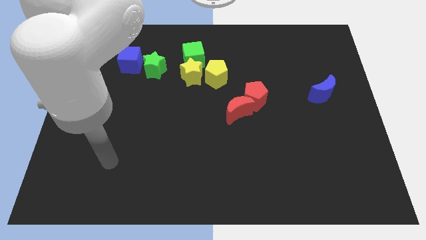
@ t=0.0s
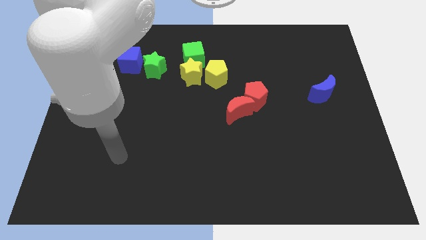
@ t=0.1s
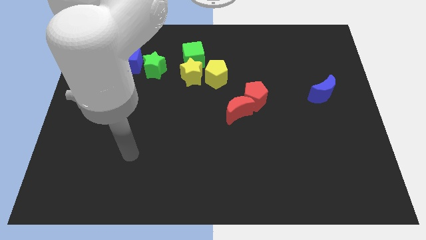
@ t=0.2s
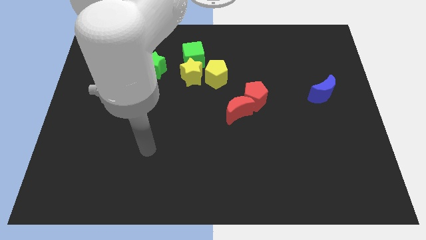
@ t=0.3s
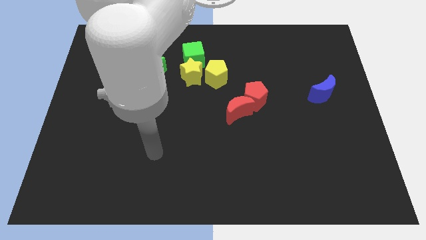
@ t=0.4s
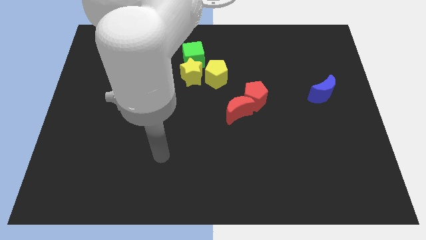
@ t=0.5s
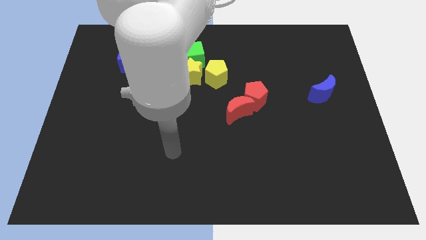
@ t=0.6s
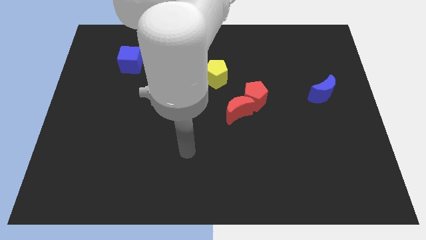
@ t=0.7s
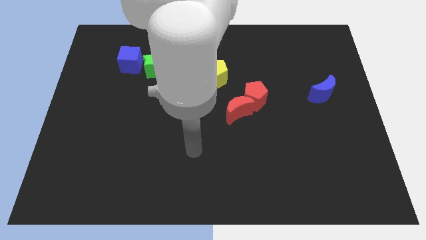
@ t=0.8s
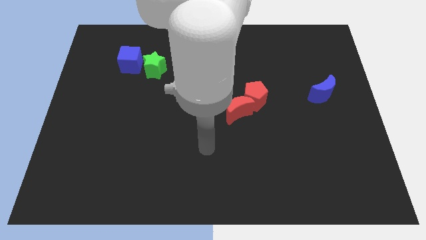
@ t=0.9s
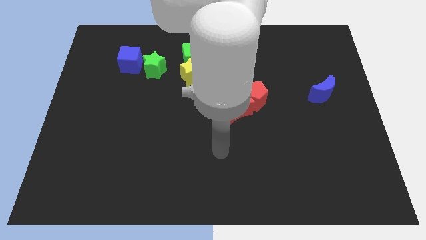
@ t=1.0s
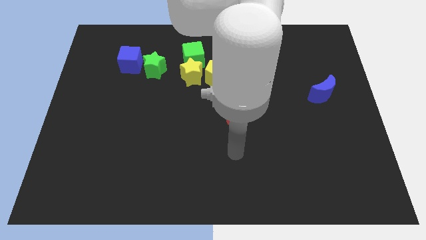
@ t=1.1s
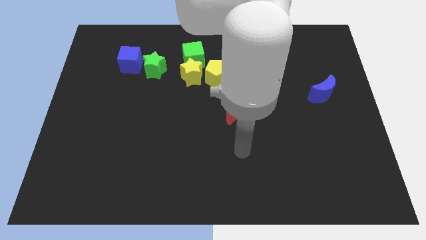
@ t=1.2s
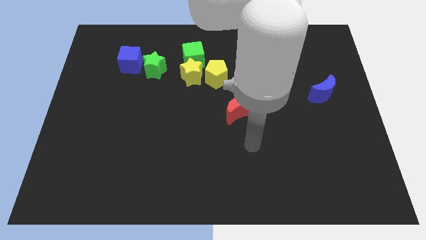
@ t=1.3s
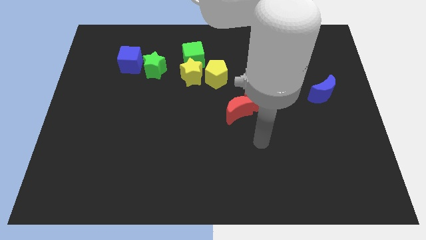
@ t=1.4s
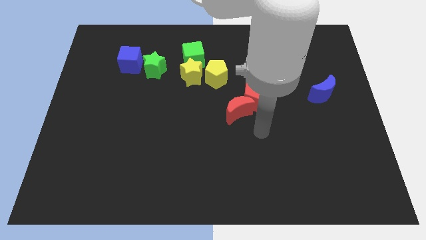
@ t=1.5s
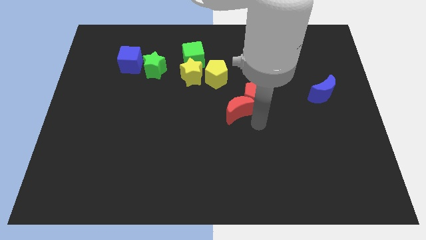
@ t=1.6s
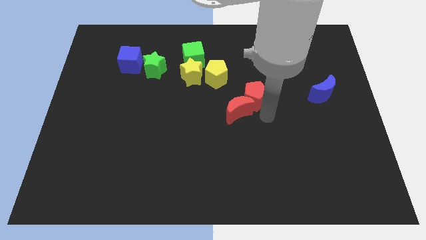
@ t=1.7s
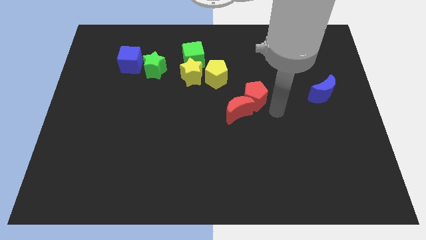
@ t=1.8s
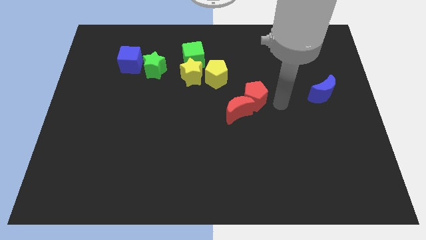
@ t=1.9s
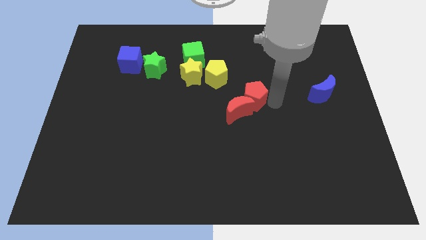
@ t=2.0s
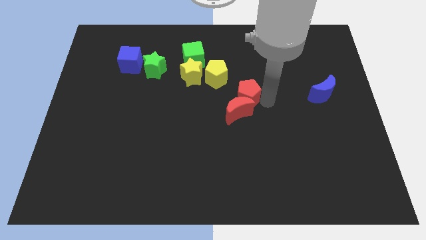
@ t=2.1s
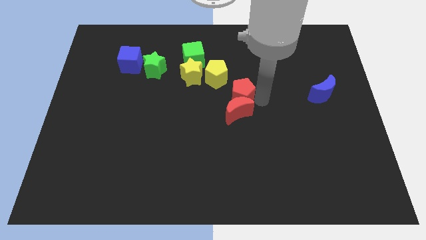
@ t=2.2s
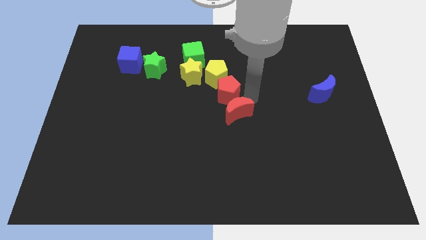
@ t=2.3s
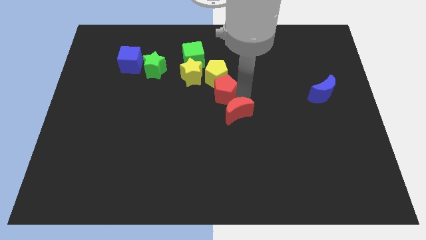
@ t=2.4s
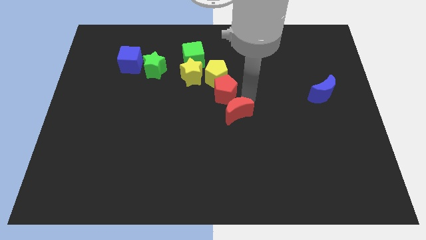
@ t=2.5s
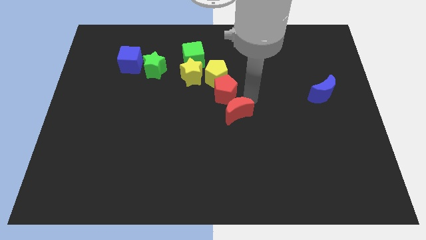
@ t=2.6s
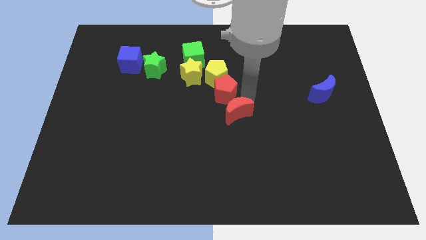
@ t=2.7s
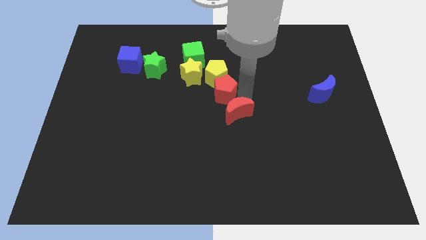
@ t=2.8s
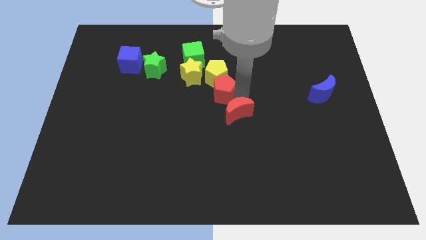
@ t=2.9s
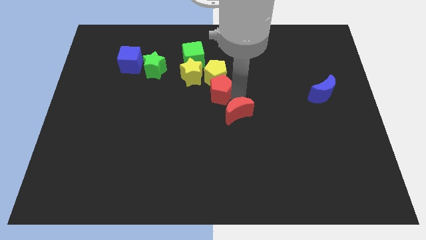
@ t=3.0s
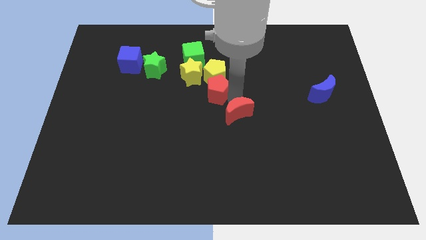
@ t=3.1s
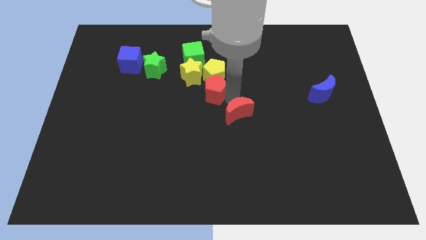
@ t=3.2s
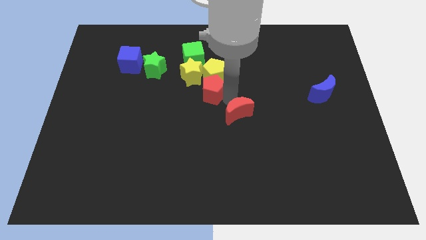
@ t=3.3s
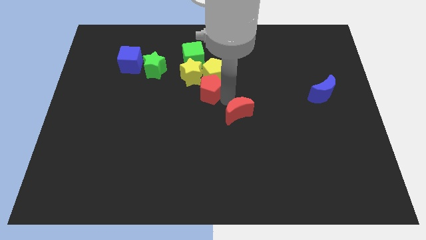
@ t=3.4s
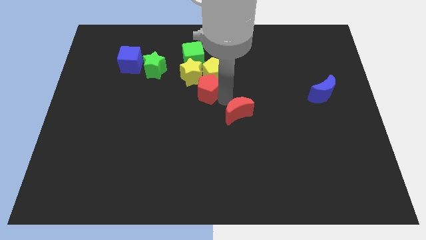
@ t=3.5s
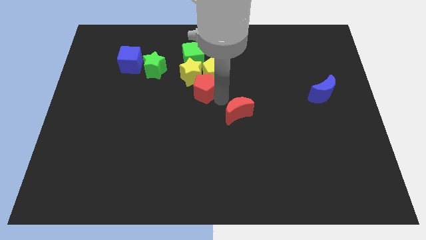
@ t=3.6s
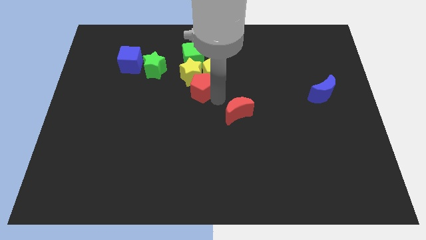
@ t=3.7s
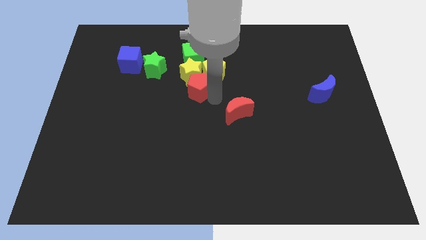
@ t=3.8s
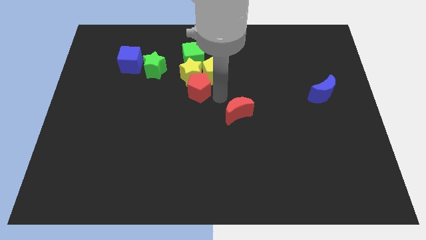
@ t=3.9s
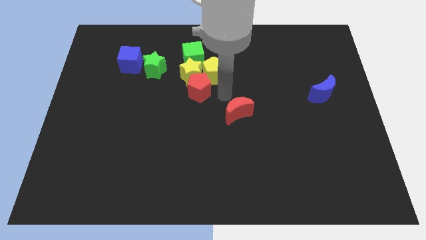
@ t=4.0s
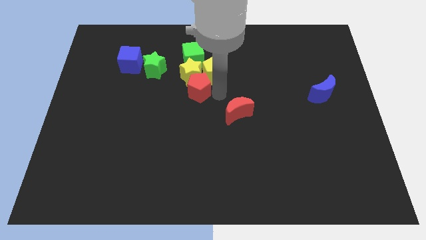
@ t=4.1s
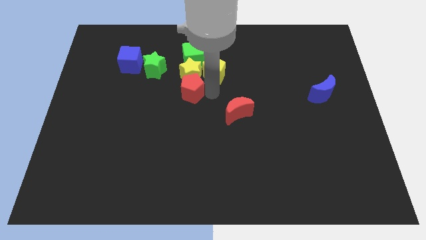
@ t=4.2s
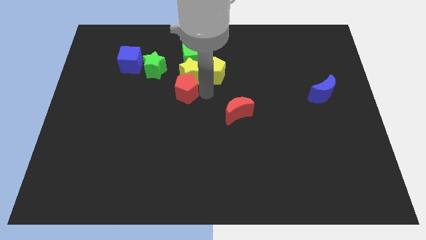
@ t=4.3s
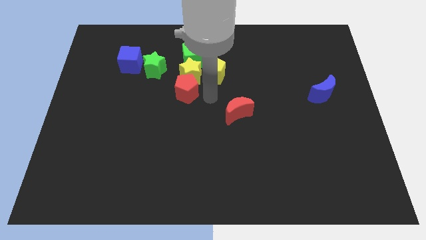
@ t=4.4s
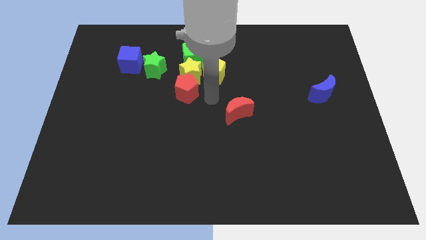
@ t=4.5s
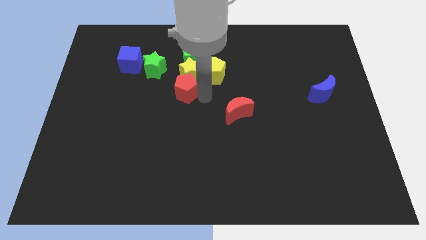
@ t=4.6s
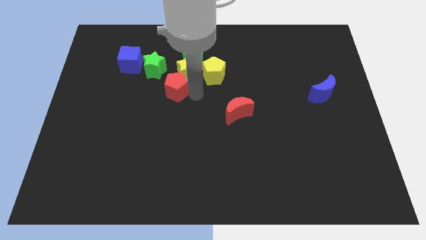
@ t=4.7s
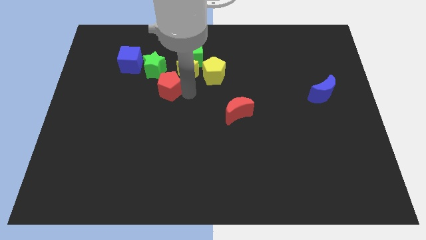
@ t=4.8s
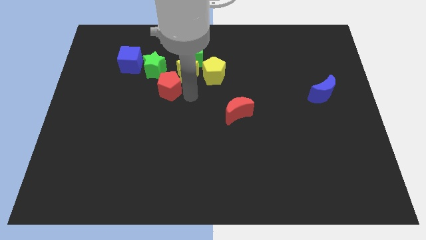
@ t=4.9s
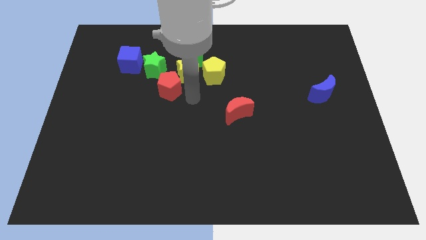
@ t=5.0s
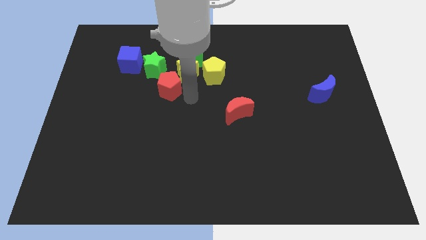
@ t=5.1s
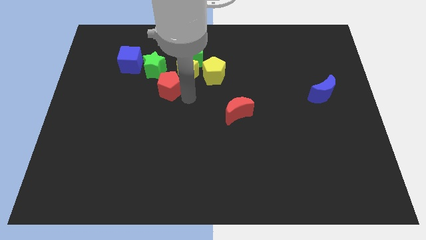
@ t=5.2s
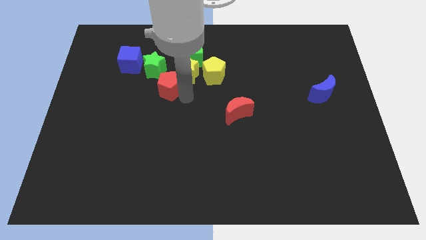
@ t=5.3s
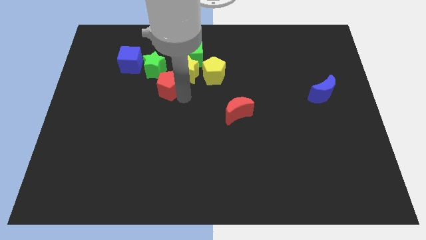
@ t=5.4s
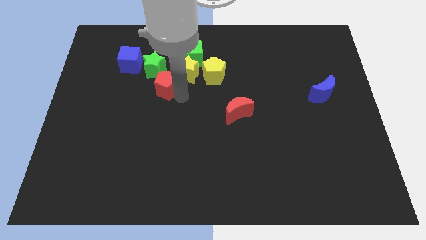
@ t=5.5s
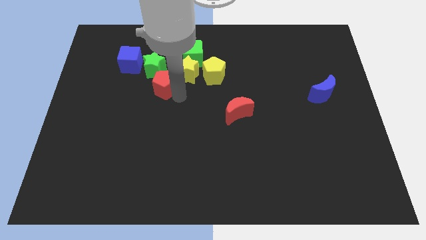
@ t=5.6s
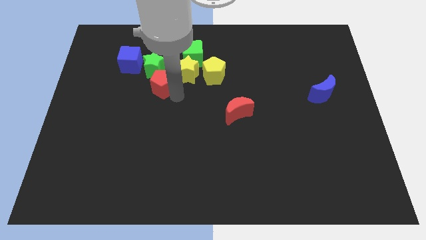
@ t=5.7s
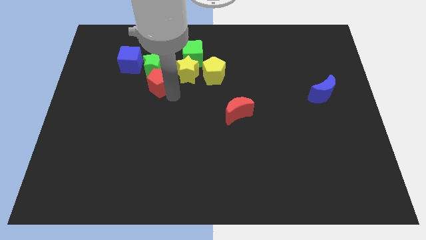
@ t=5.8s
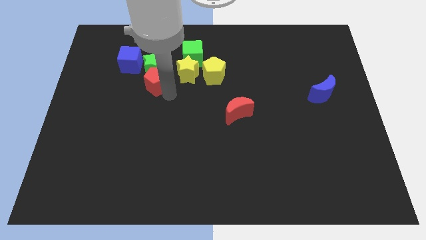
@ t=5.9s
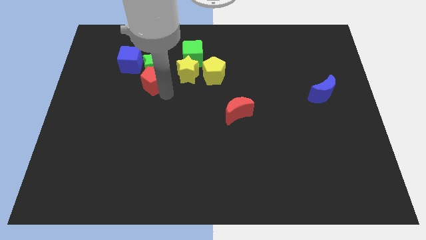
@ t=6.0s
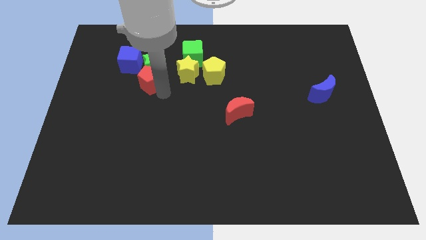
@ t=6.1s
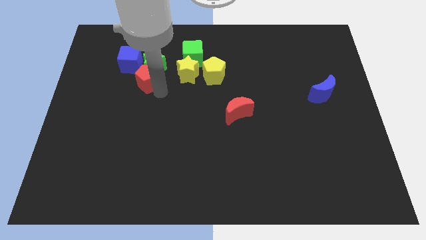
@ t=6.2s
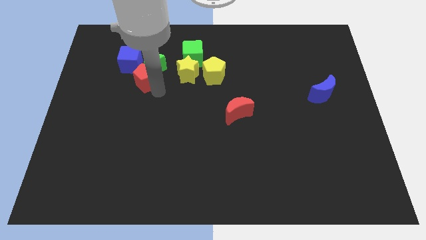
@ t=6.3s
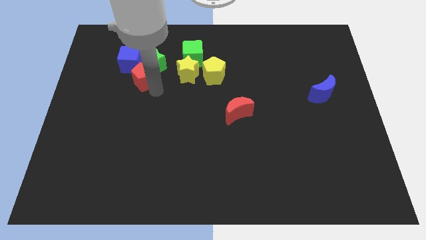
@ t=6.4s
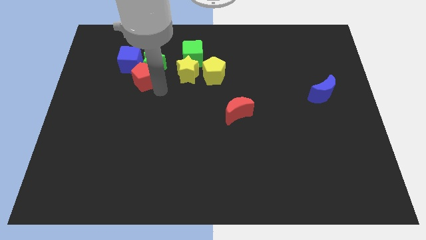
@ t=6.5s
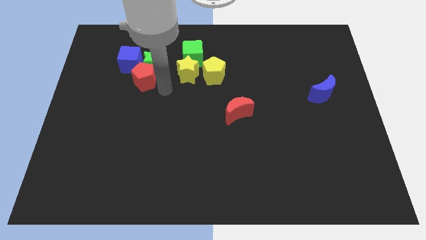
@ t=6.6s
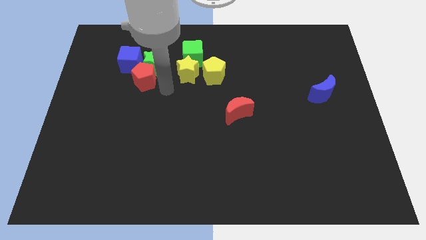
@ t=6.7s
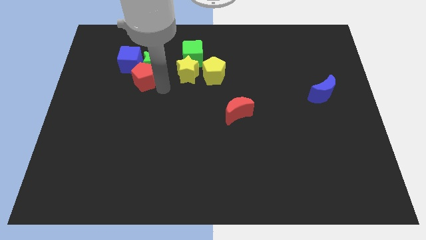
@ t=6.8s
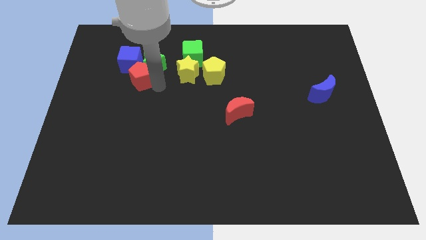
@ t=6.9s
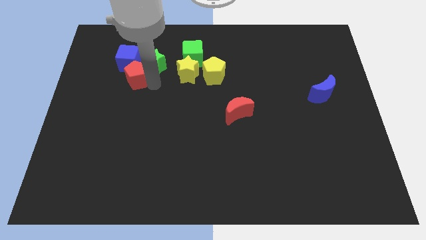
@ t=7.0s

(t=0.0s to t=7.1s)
slide the red pentagon towards the blue cube

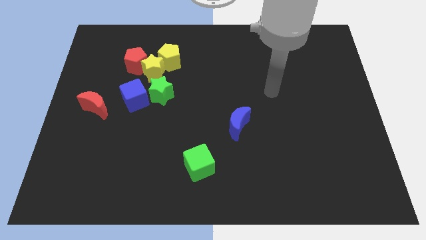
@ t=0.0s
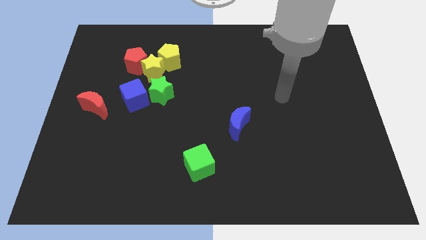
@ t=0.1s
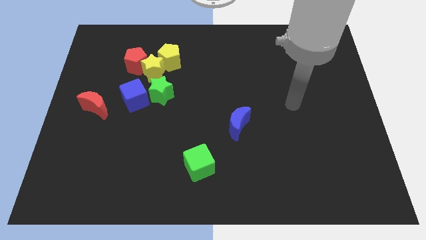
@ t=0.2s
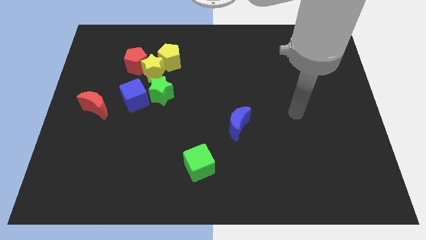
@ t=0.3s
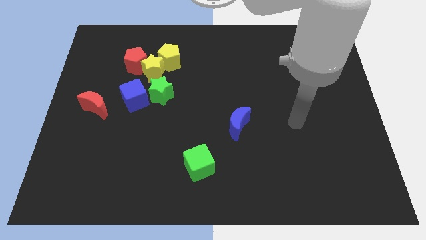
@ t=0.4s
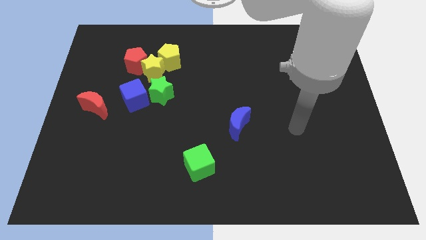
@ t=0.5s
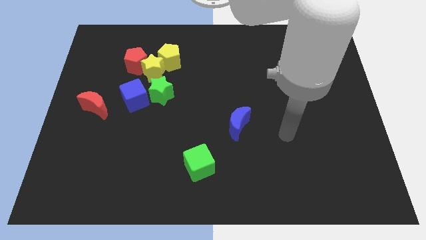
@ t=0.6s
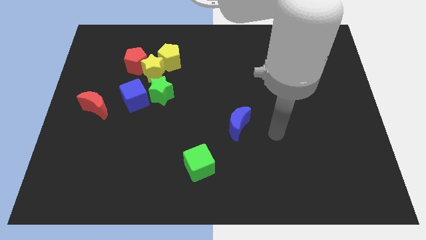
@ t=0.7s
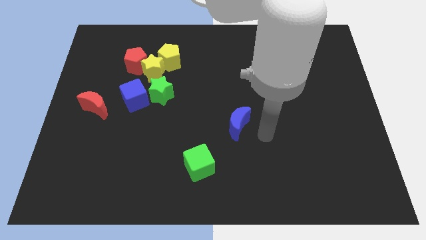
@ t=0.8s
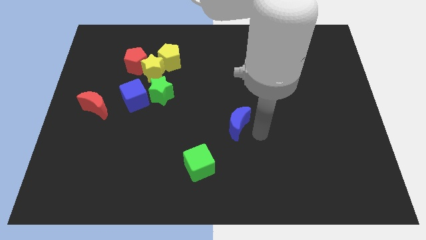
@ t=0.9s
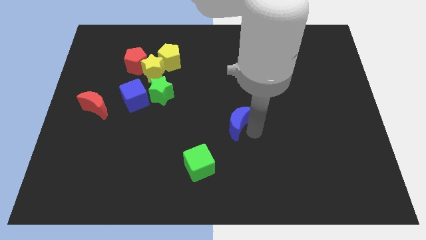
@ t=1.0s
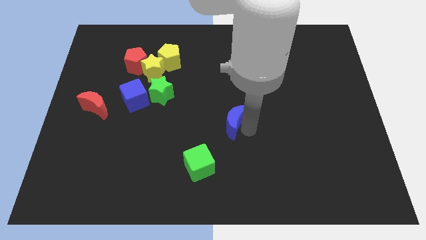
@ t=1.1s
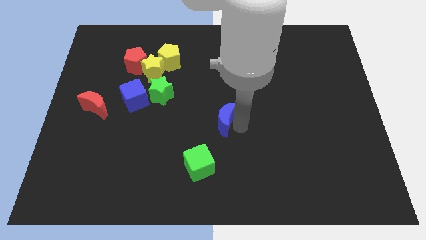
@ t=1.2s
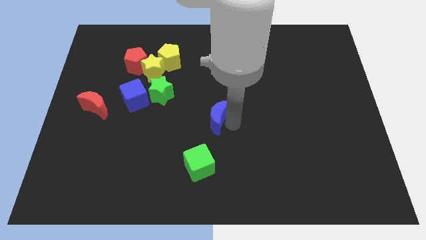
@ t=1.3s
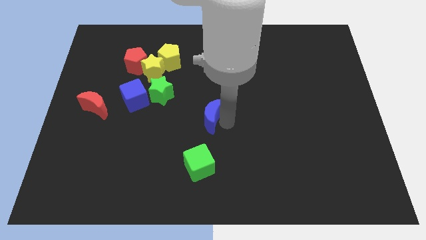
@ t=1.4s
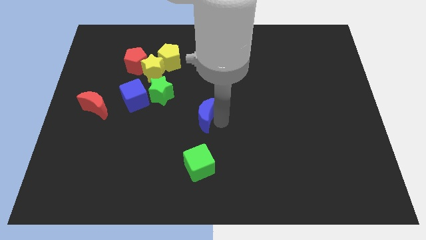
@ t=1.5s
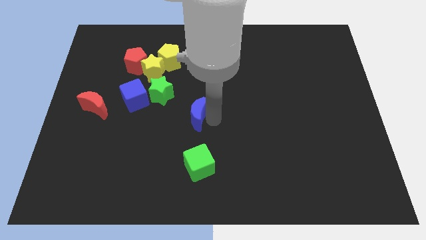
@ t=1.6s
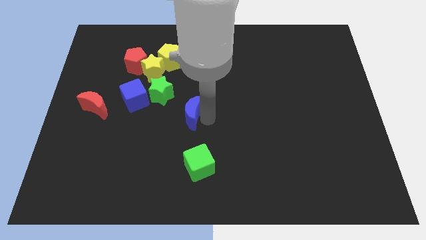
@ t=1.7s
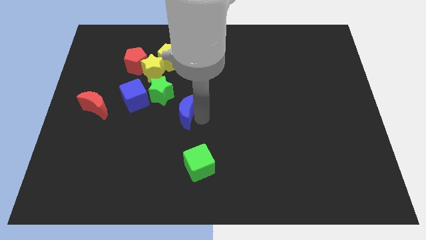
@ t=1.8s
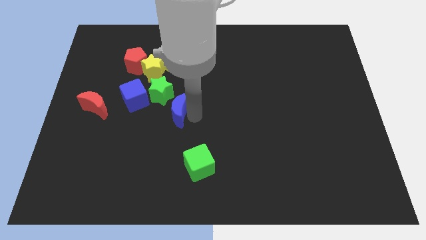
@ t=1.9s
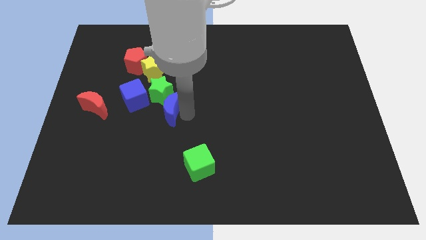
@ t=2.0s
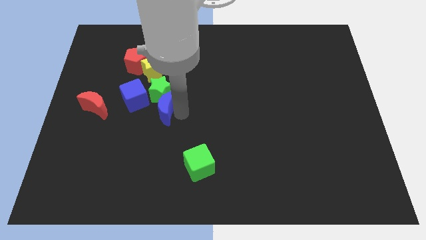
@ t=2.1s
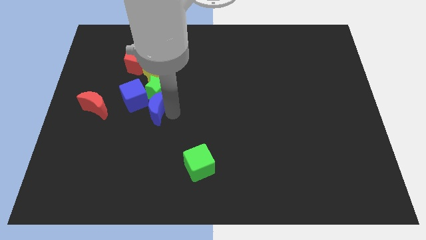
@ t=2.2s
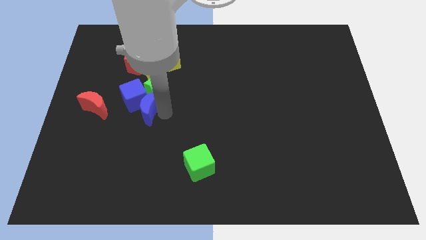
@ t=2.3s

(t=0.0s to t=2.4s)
push the blue moon close to the blue cube
